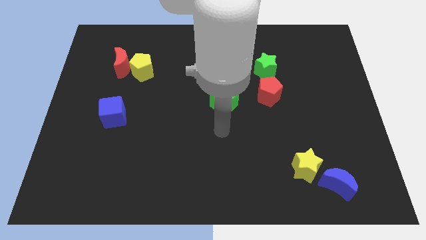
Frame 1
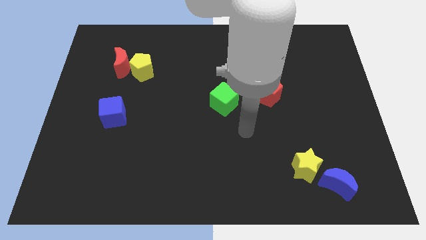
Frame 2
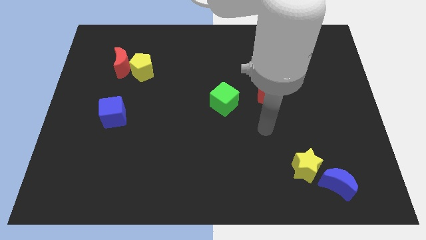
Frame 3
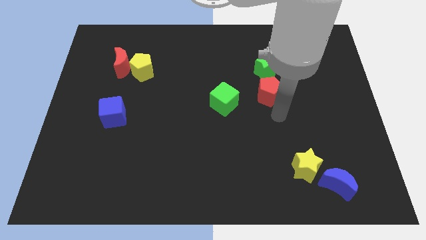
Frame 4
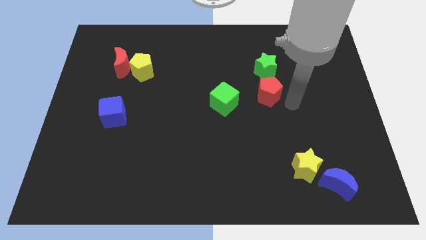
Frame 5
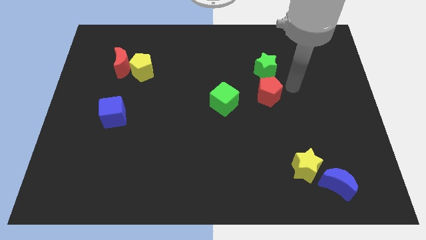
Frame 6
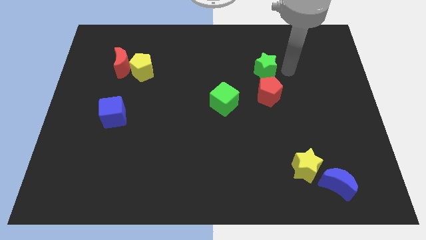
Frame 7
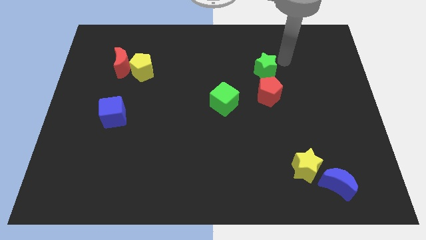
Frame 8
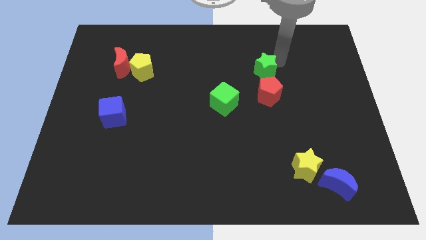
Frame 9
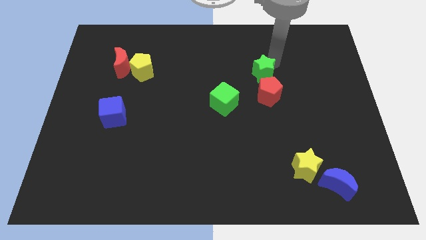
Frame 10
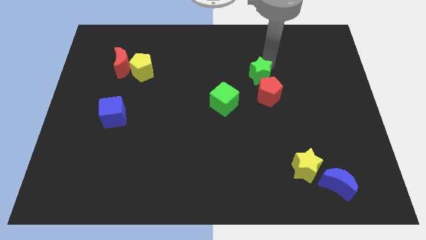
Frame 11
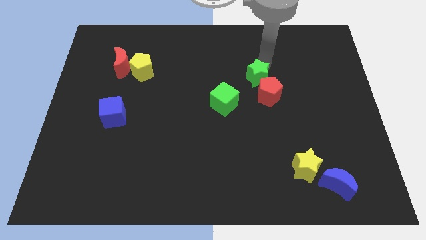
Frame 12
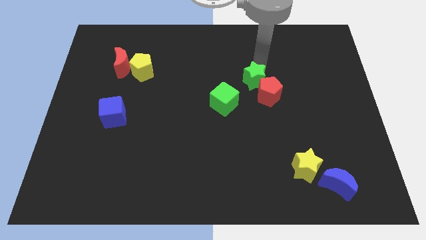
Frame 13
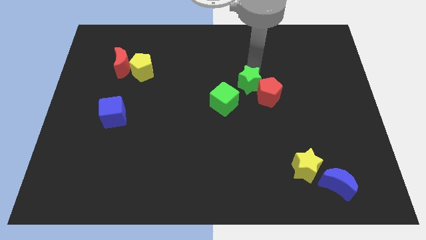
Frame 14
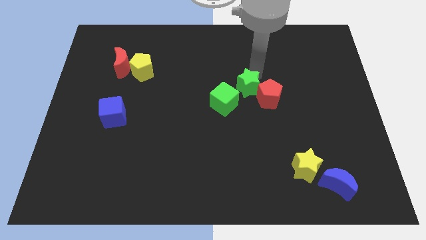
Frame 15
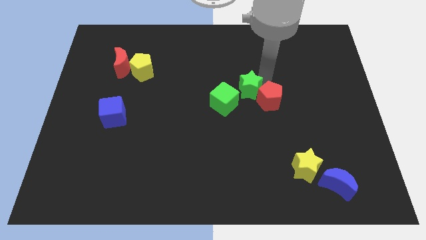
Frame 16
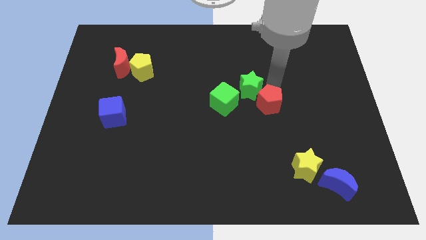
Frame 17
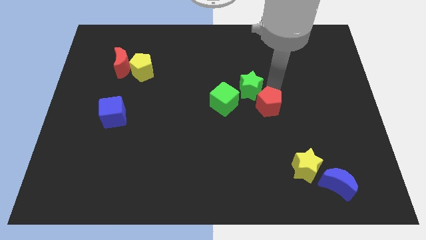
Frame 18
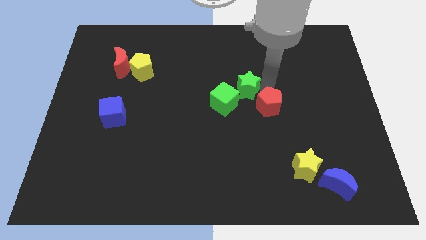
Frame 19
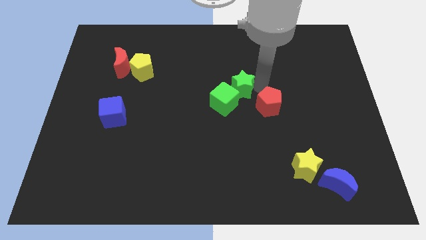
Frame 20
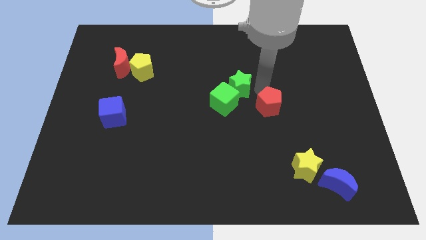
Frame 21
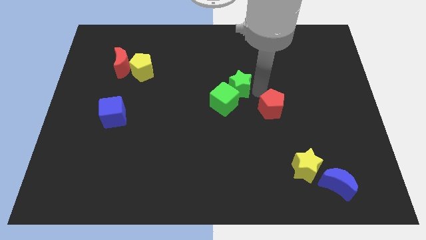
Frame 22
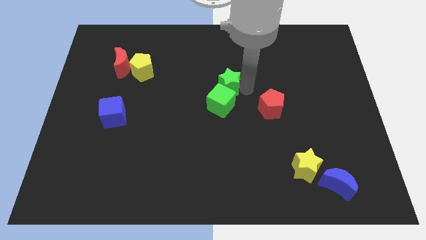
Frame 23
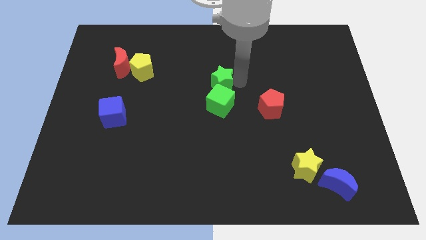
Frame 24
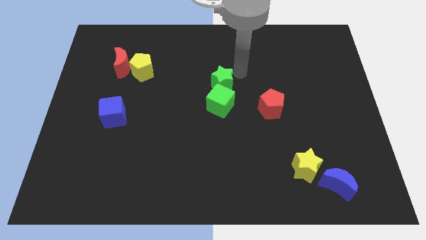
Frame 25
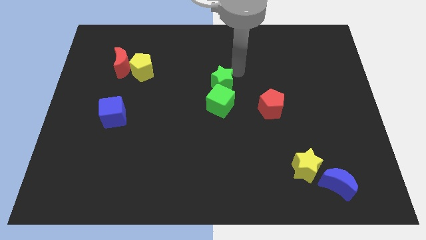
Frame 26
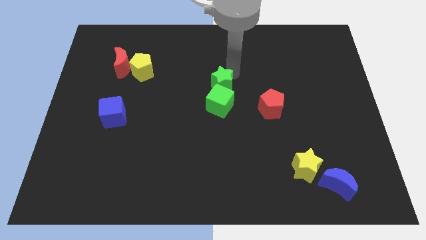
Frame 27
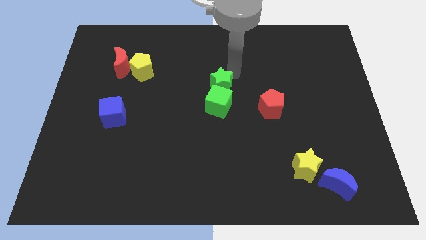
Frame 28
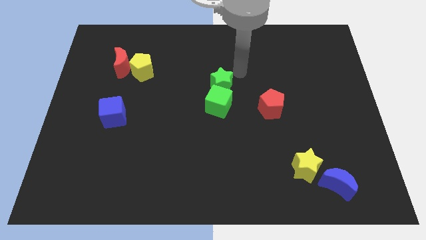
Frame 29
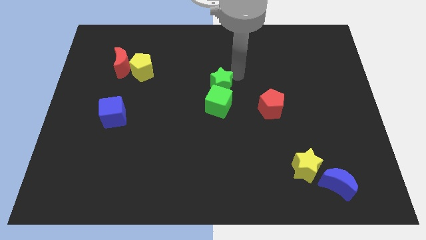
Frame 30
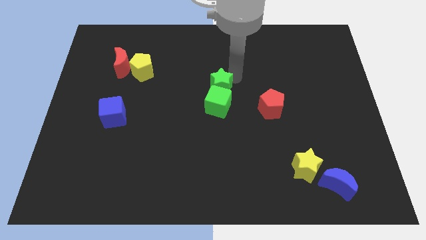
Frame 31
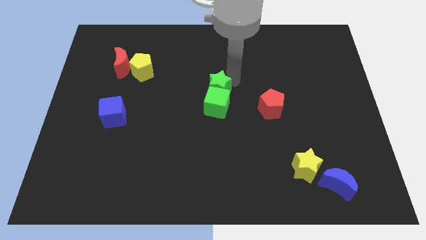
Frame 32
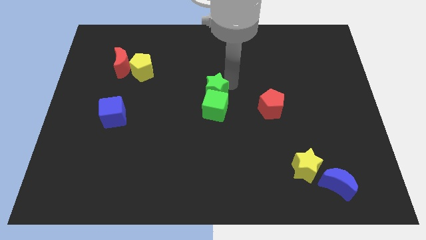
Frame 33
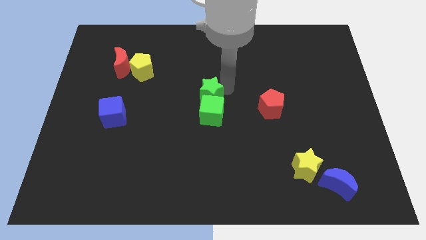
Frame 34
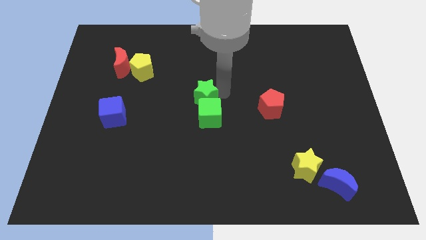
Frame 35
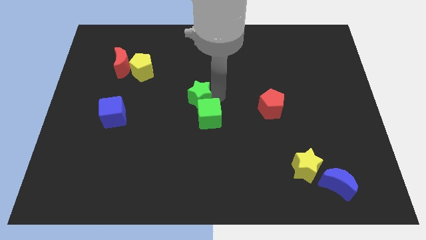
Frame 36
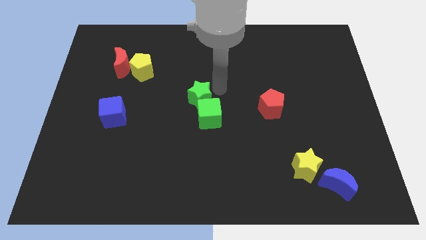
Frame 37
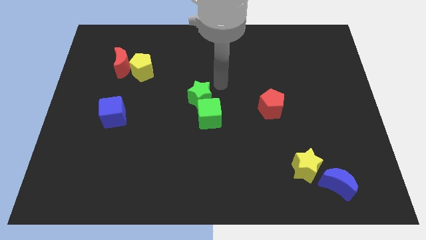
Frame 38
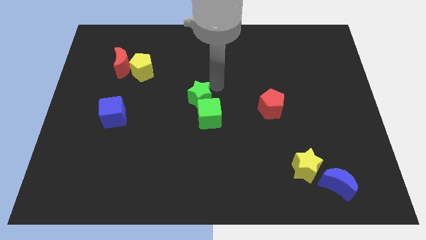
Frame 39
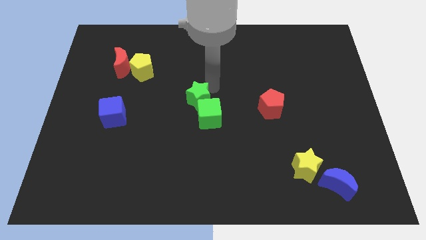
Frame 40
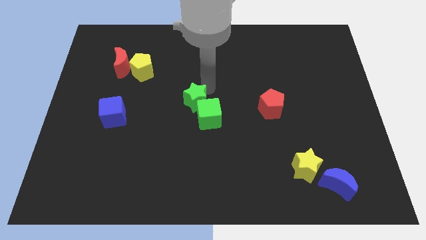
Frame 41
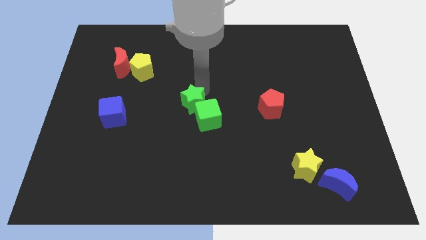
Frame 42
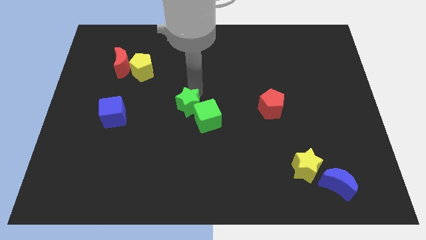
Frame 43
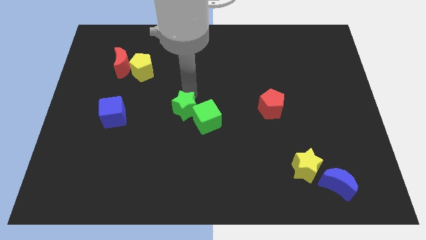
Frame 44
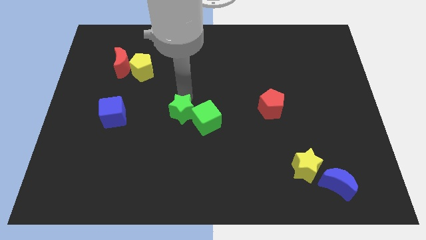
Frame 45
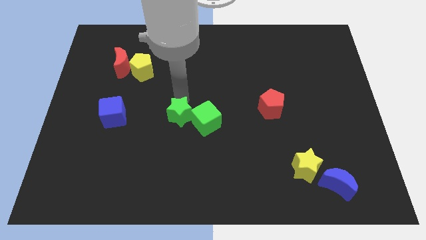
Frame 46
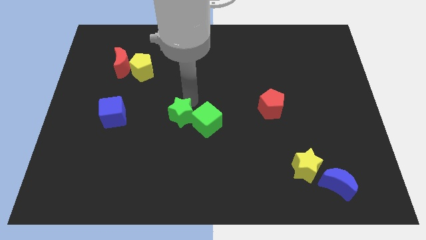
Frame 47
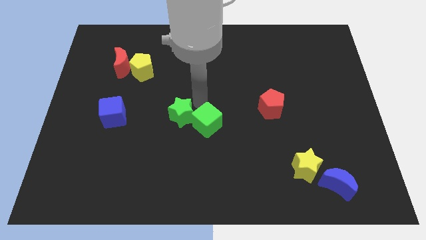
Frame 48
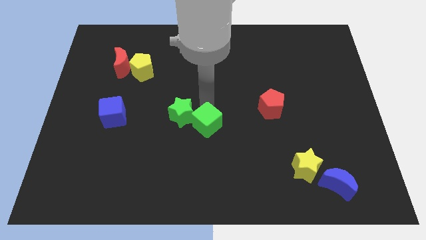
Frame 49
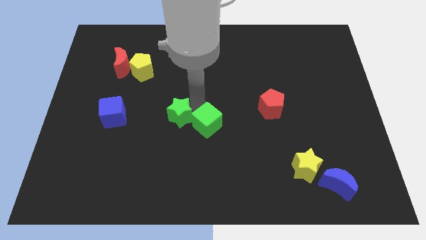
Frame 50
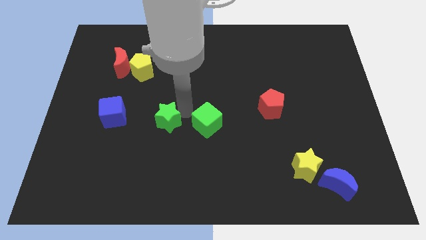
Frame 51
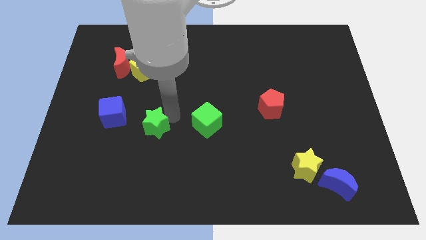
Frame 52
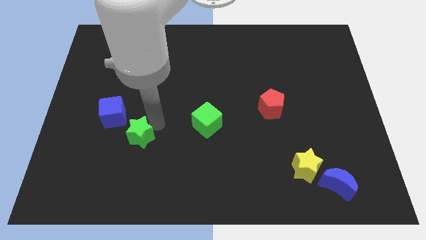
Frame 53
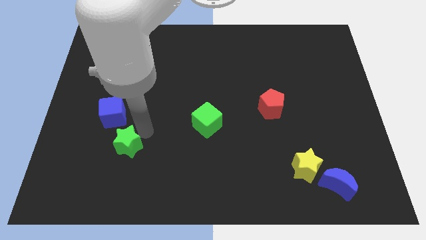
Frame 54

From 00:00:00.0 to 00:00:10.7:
put the green star to the bottom side of the blue cube

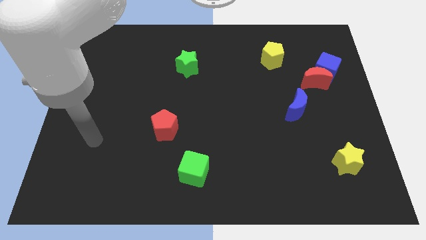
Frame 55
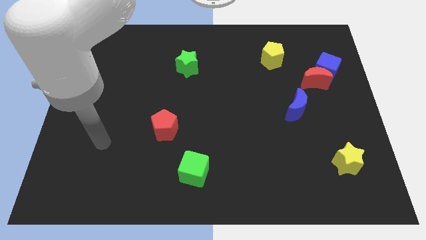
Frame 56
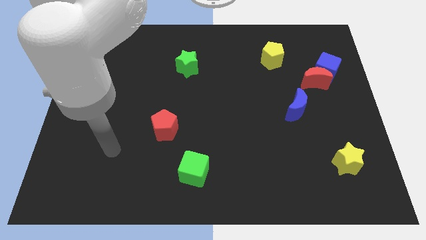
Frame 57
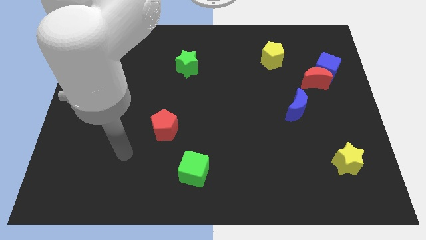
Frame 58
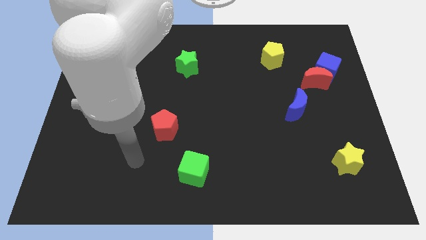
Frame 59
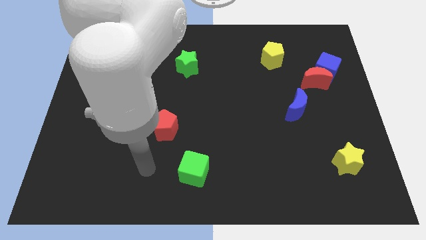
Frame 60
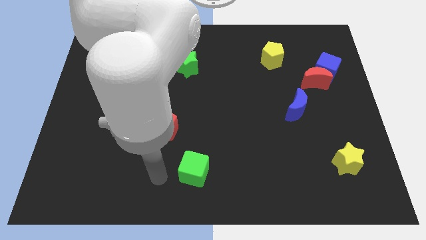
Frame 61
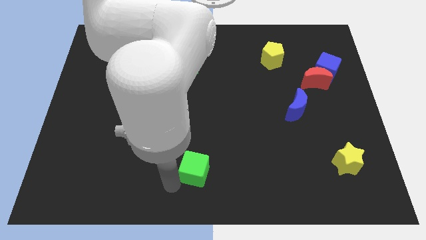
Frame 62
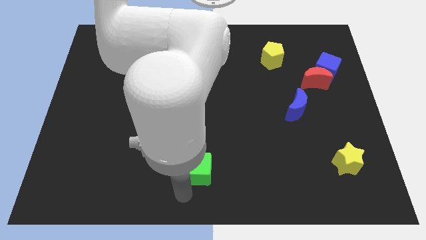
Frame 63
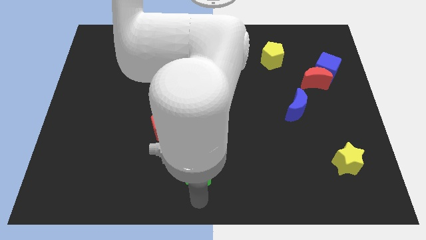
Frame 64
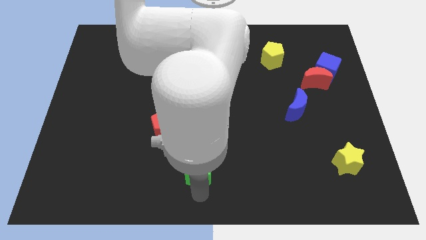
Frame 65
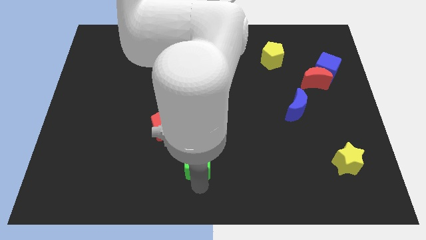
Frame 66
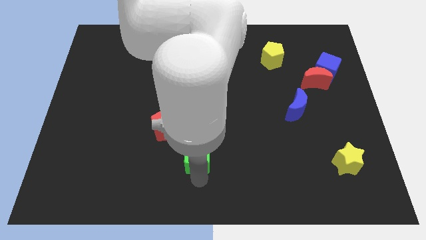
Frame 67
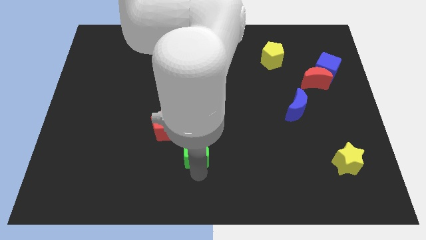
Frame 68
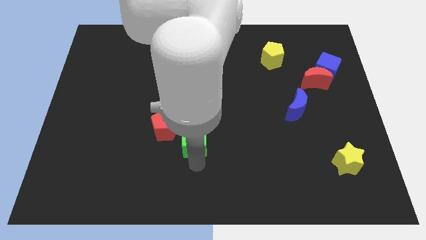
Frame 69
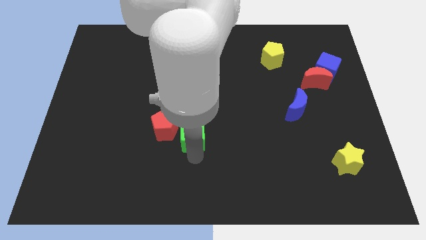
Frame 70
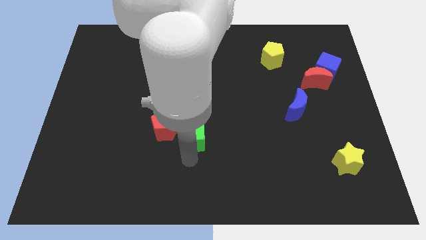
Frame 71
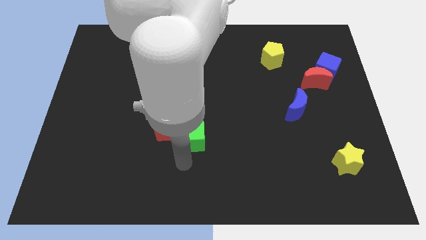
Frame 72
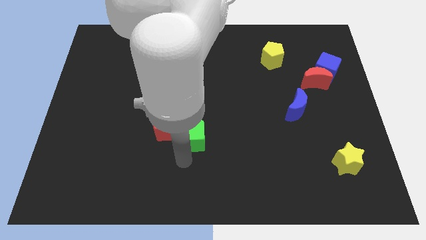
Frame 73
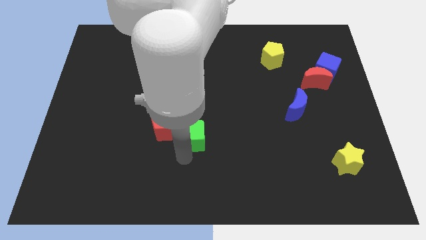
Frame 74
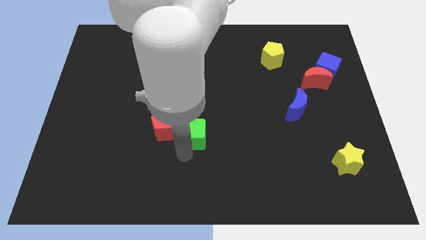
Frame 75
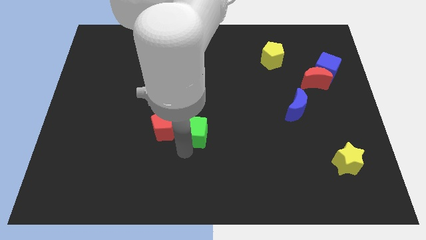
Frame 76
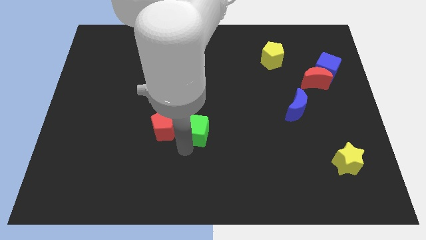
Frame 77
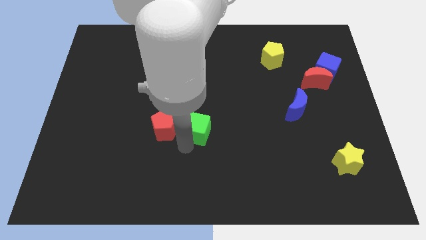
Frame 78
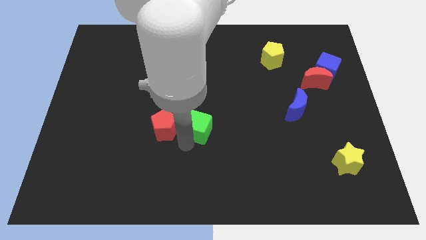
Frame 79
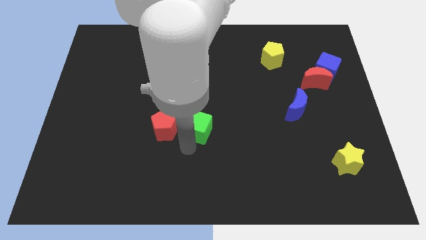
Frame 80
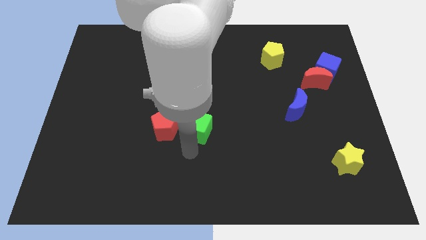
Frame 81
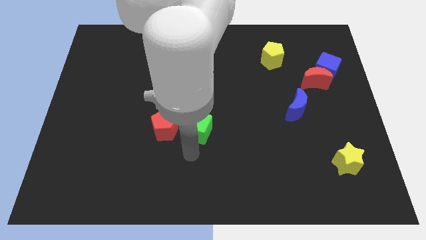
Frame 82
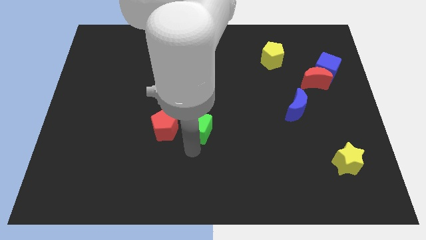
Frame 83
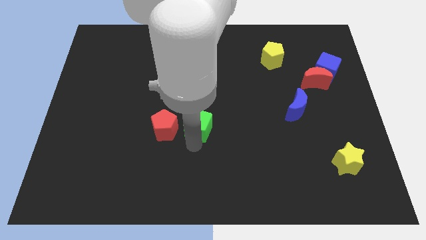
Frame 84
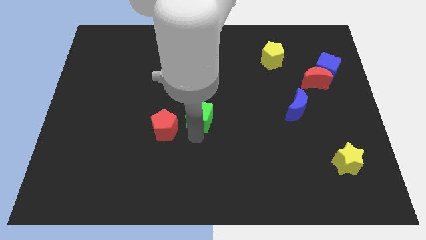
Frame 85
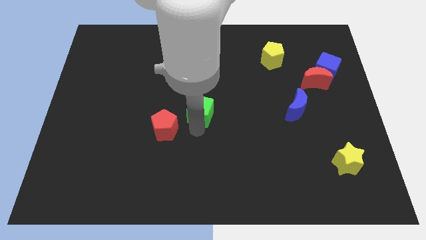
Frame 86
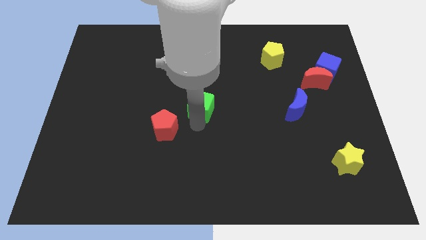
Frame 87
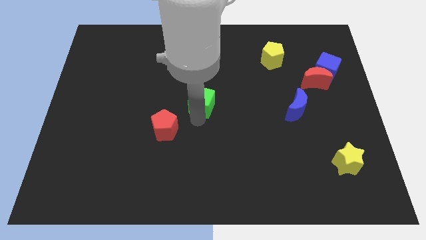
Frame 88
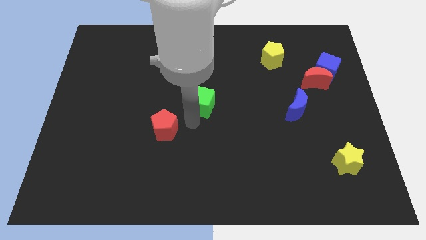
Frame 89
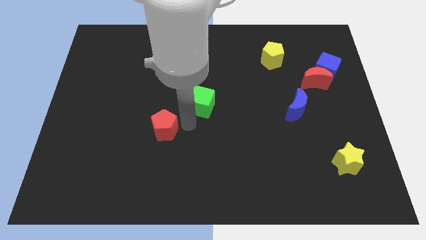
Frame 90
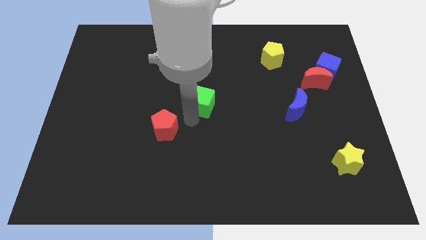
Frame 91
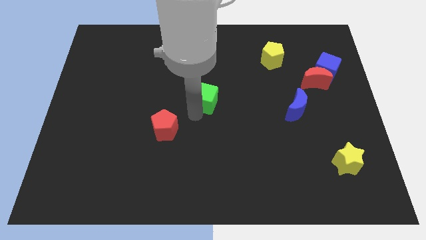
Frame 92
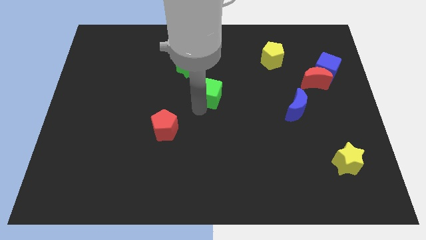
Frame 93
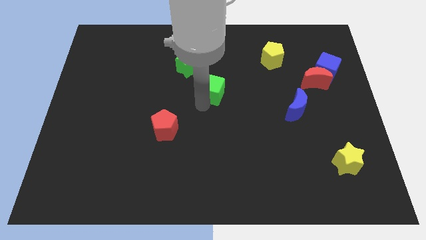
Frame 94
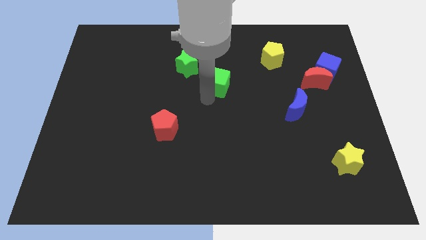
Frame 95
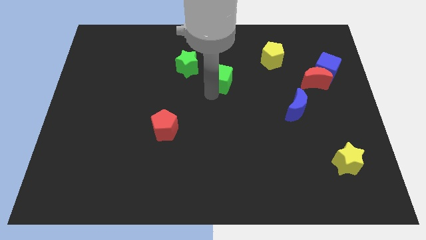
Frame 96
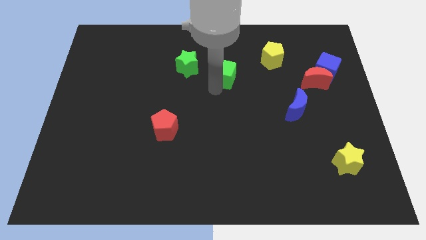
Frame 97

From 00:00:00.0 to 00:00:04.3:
move the green cube just right of the green star
